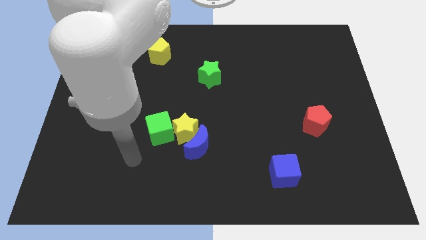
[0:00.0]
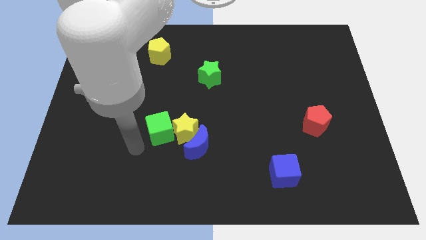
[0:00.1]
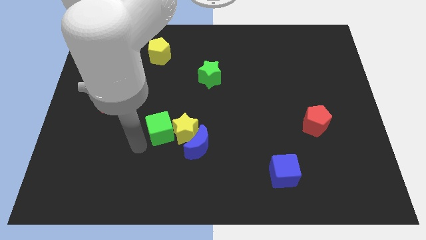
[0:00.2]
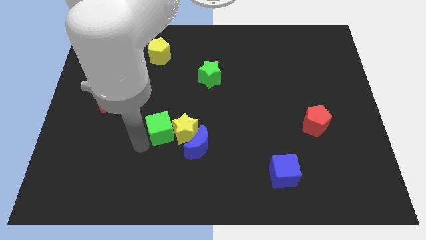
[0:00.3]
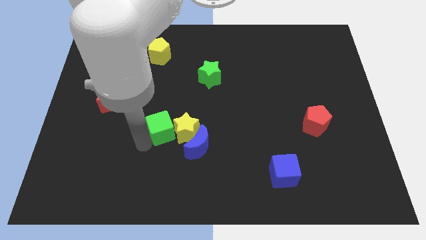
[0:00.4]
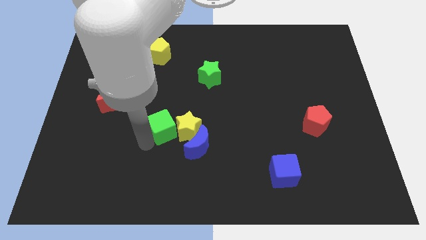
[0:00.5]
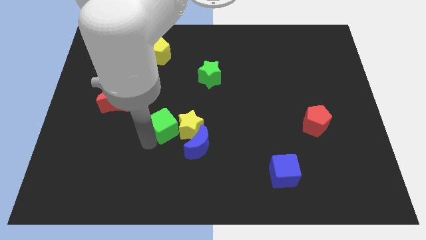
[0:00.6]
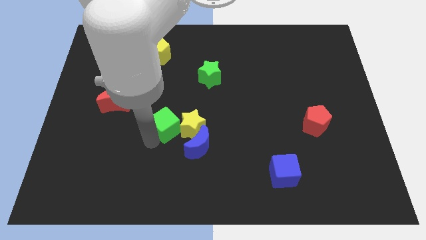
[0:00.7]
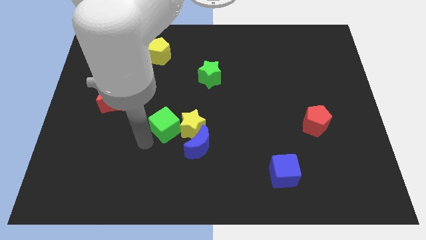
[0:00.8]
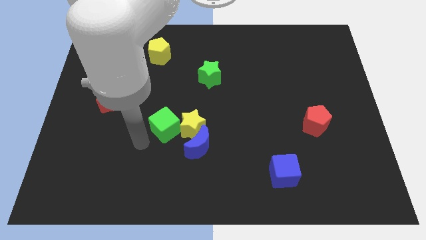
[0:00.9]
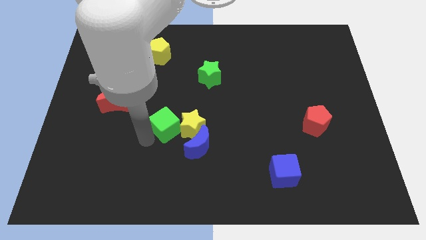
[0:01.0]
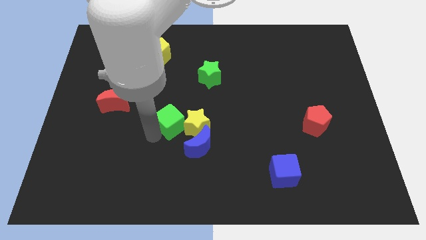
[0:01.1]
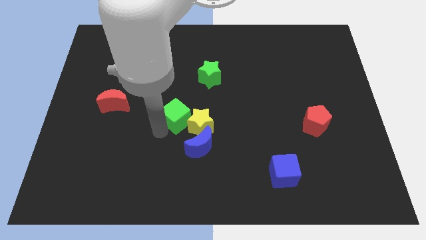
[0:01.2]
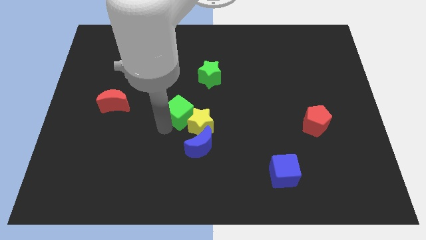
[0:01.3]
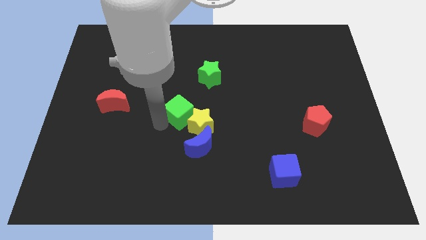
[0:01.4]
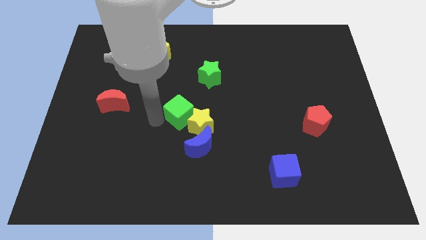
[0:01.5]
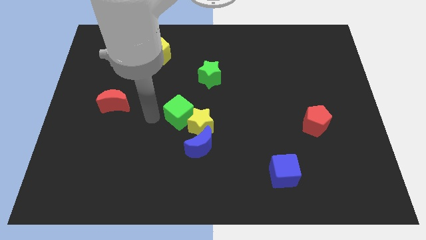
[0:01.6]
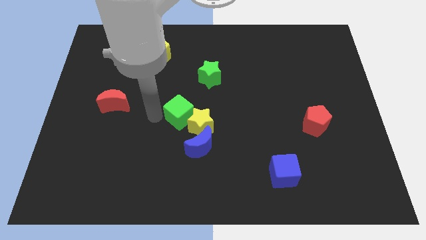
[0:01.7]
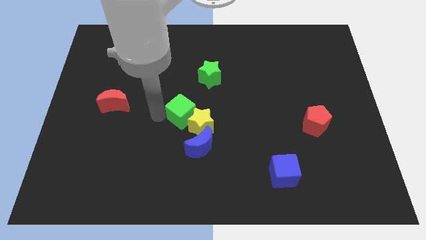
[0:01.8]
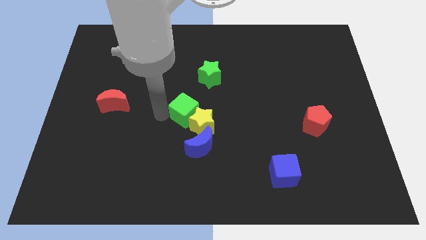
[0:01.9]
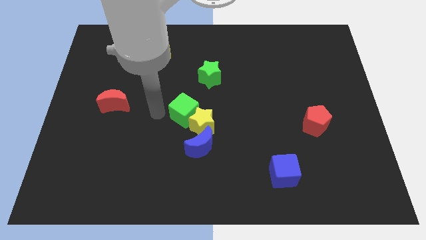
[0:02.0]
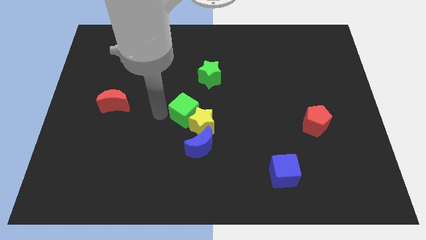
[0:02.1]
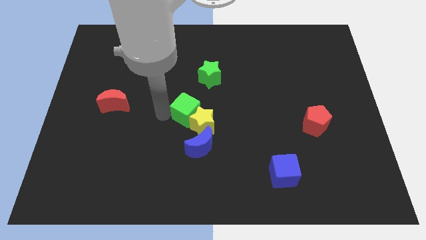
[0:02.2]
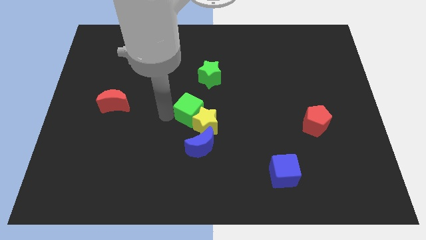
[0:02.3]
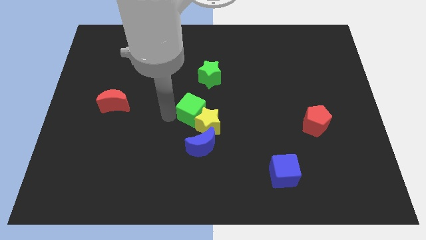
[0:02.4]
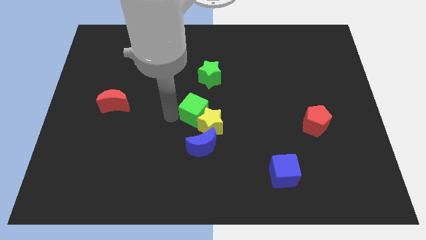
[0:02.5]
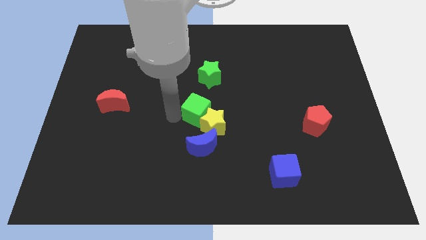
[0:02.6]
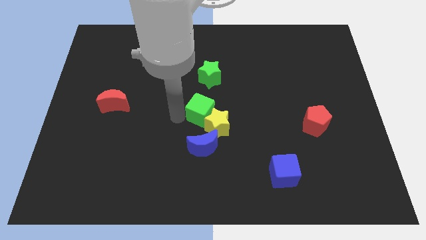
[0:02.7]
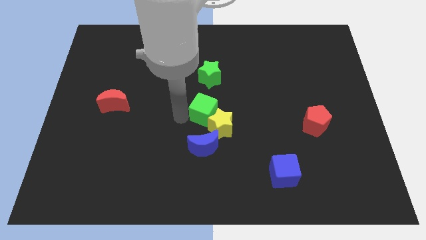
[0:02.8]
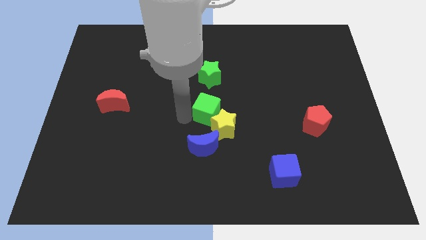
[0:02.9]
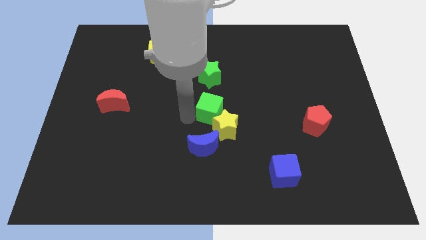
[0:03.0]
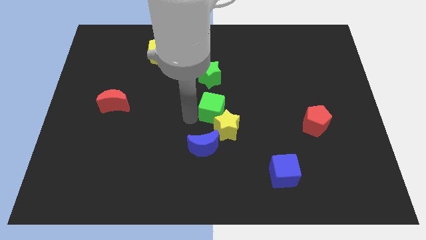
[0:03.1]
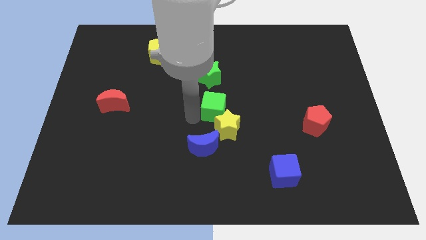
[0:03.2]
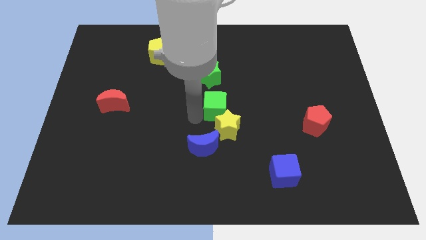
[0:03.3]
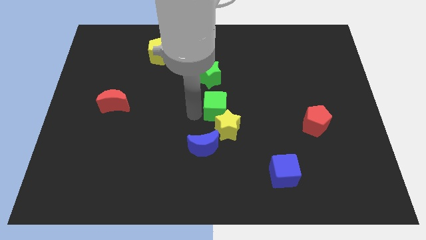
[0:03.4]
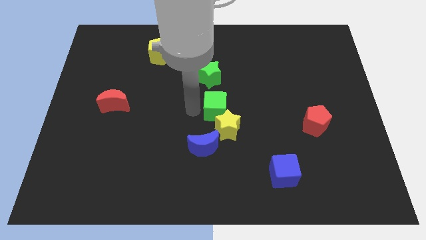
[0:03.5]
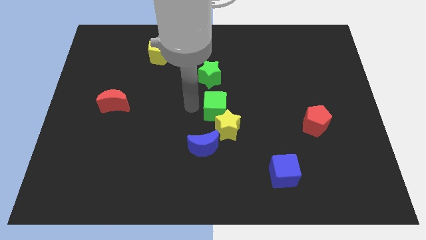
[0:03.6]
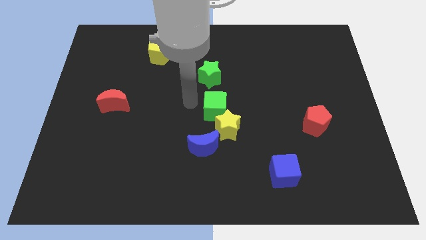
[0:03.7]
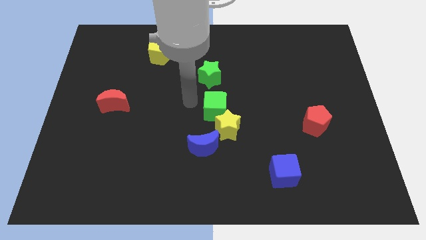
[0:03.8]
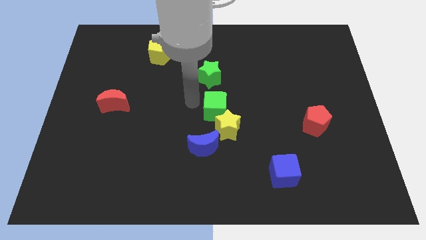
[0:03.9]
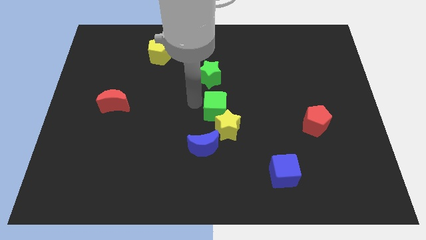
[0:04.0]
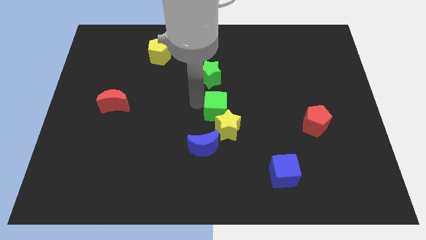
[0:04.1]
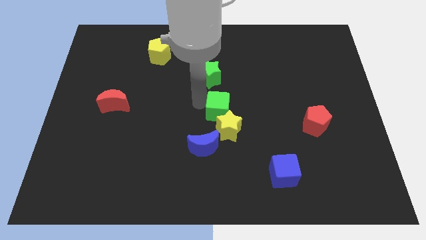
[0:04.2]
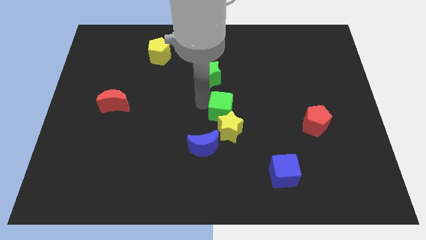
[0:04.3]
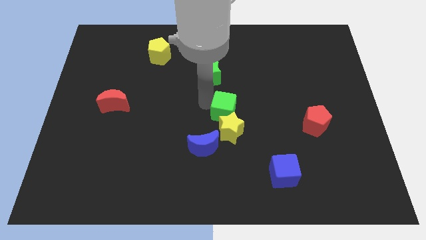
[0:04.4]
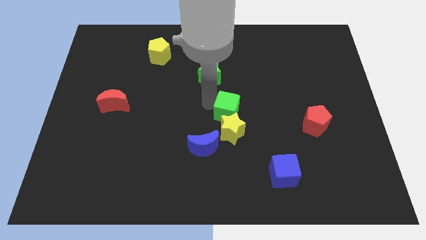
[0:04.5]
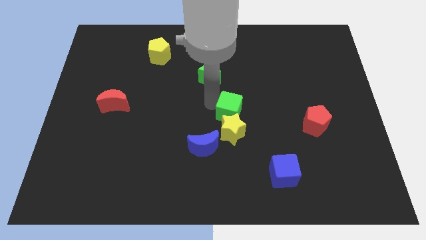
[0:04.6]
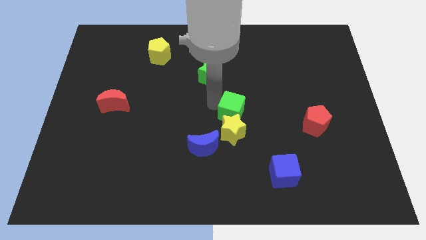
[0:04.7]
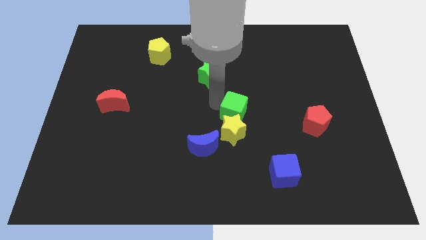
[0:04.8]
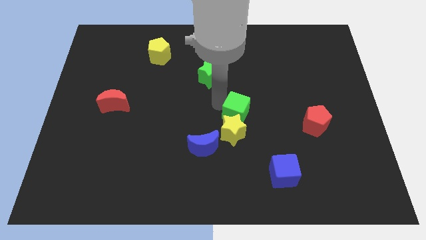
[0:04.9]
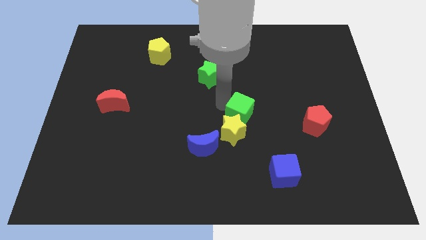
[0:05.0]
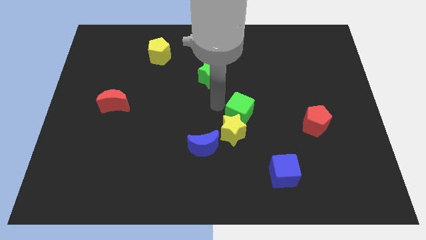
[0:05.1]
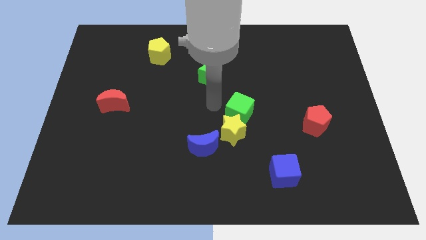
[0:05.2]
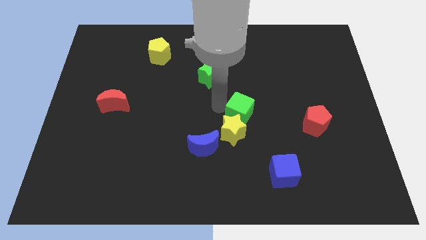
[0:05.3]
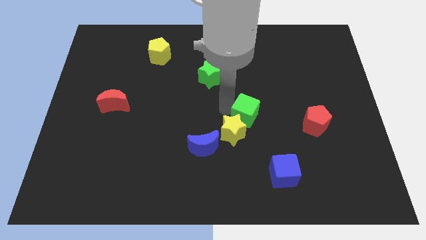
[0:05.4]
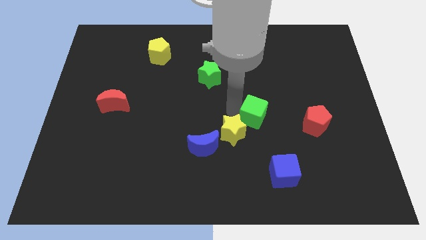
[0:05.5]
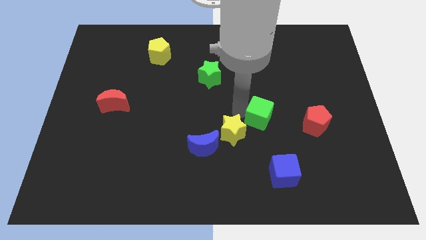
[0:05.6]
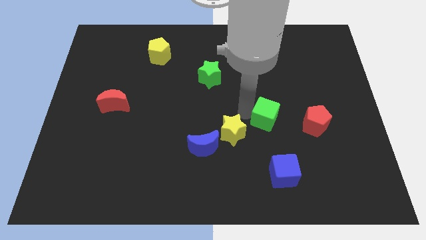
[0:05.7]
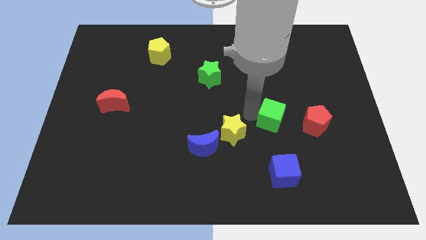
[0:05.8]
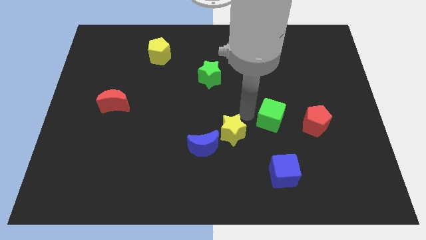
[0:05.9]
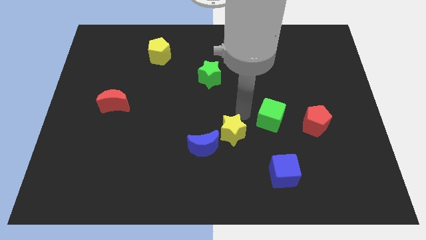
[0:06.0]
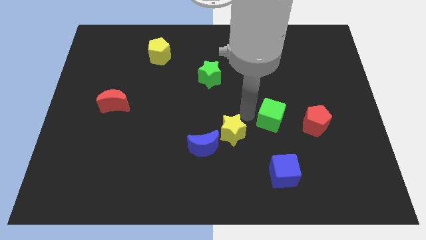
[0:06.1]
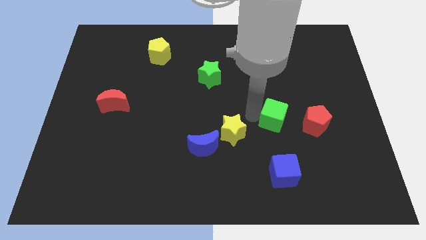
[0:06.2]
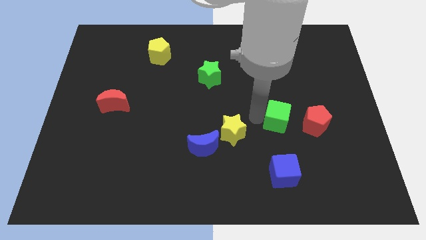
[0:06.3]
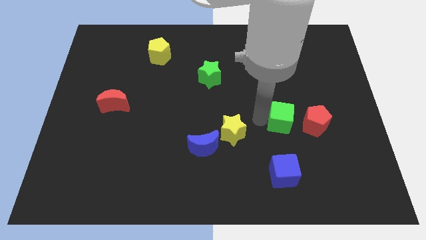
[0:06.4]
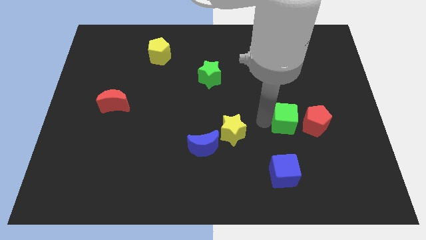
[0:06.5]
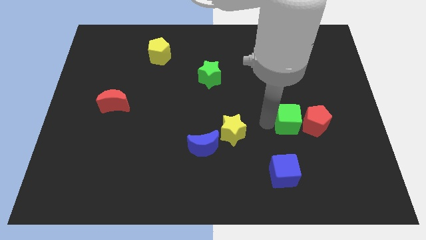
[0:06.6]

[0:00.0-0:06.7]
move the green cube towards the red pentagon

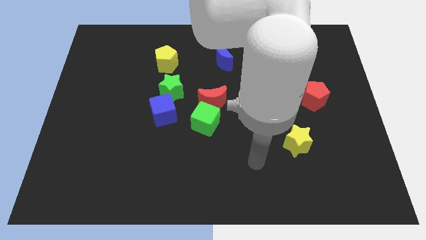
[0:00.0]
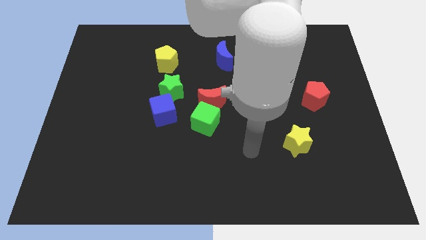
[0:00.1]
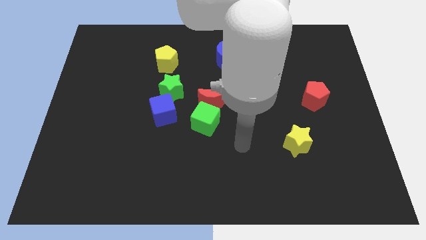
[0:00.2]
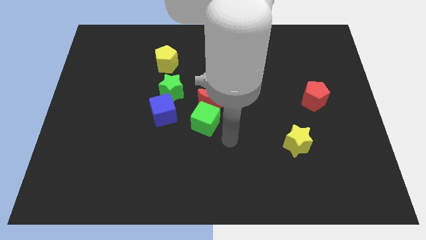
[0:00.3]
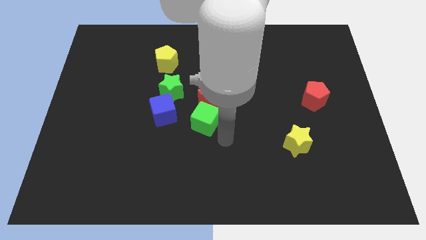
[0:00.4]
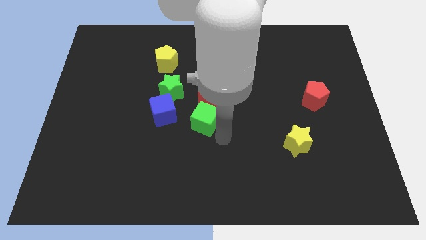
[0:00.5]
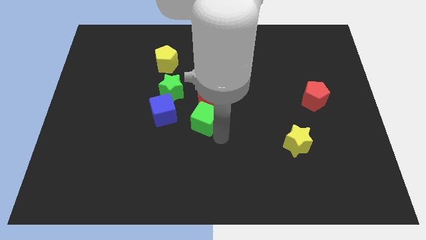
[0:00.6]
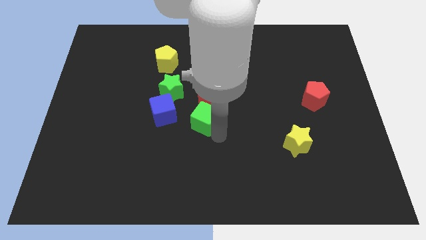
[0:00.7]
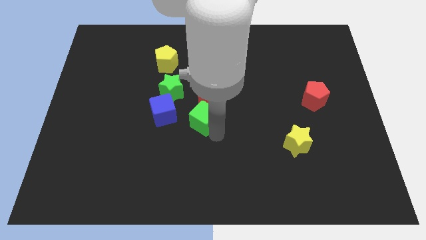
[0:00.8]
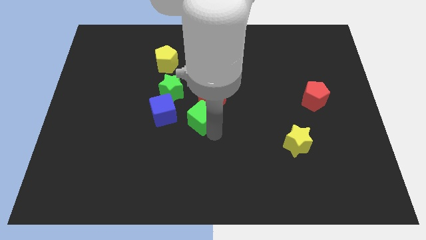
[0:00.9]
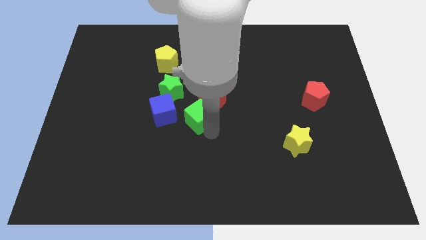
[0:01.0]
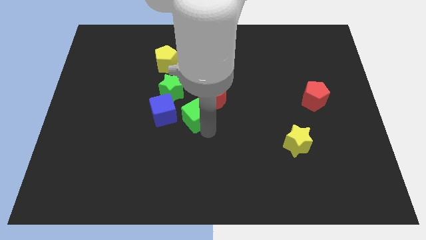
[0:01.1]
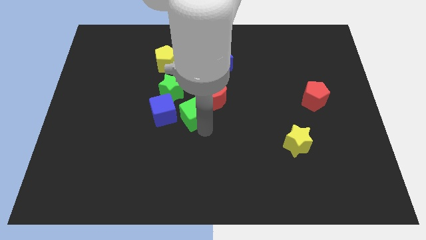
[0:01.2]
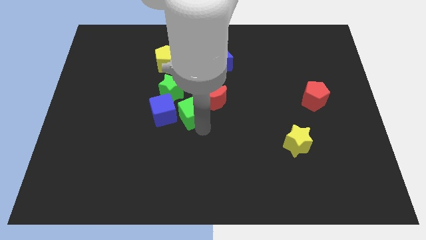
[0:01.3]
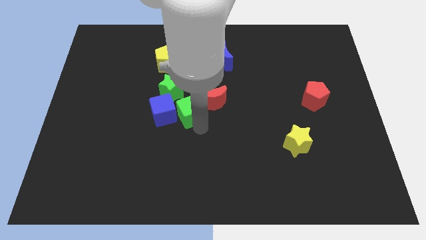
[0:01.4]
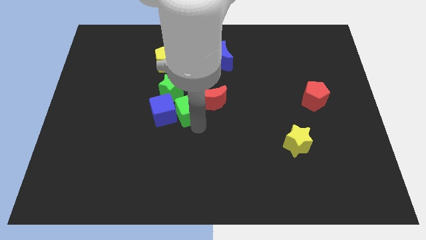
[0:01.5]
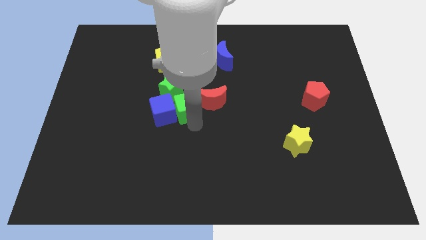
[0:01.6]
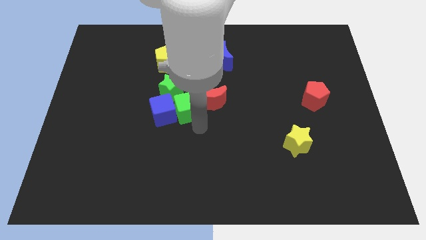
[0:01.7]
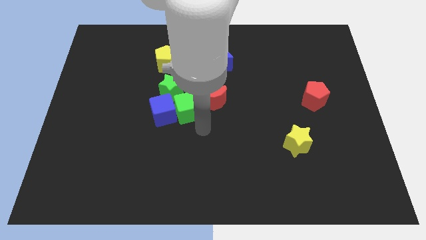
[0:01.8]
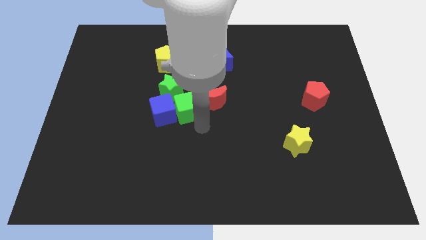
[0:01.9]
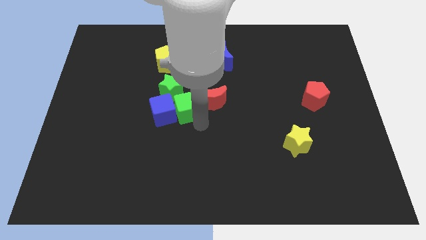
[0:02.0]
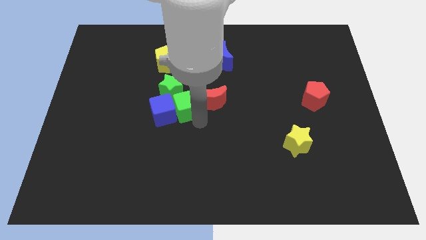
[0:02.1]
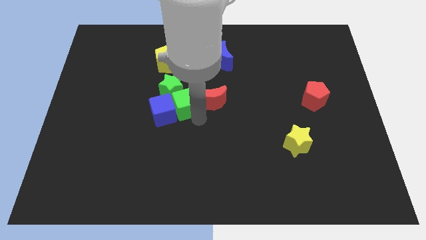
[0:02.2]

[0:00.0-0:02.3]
move the green cube close to the green star
